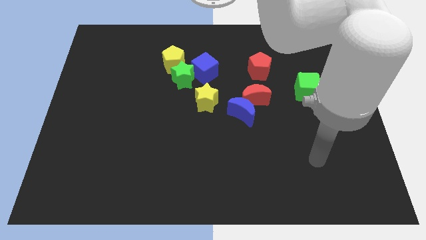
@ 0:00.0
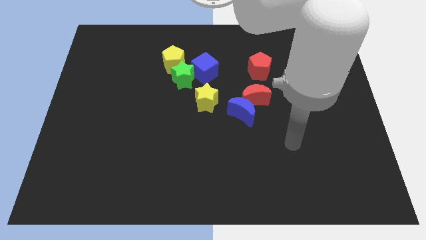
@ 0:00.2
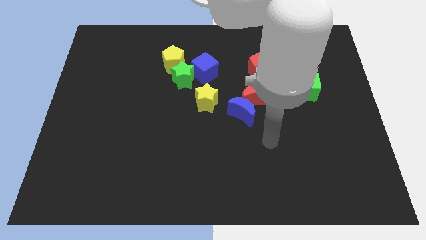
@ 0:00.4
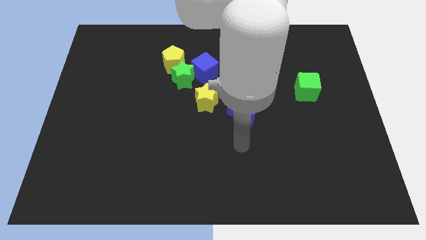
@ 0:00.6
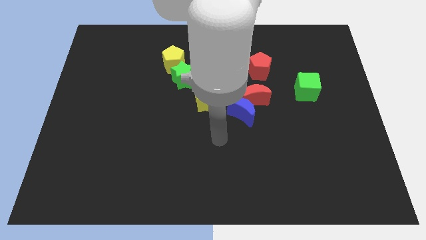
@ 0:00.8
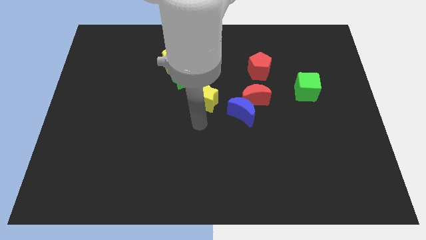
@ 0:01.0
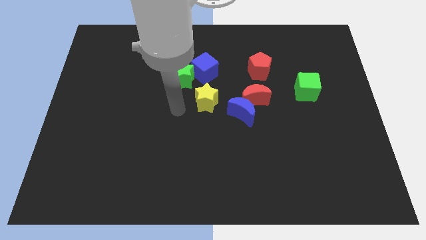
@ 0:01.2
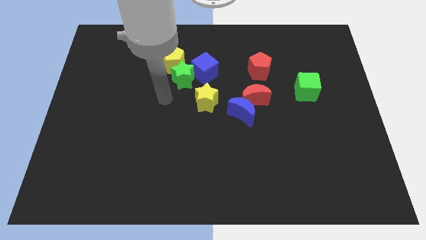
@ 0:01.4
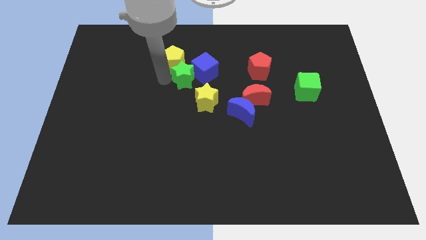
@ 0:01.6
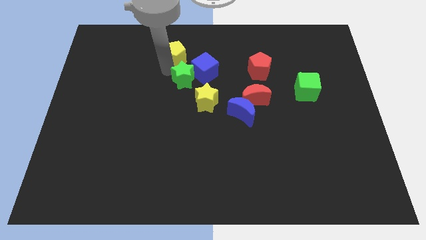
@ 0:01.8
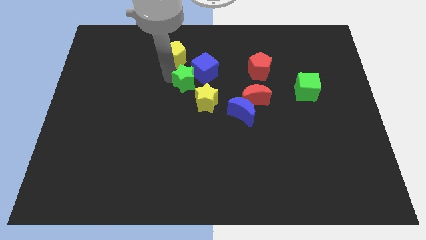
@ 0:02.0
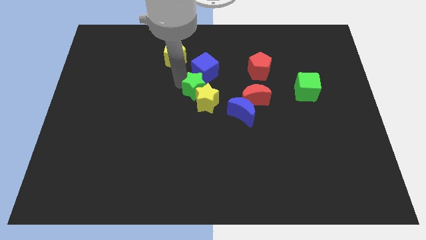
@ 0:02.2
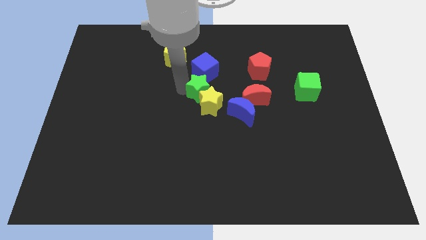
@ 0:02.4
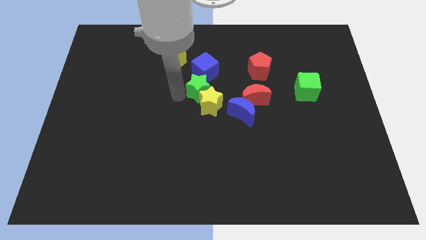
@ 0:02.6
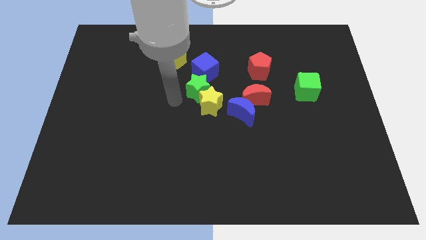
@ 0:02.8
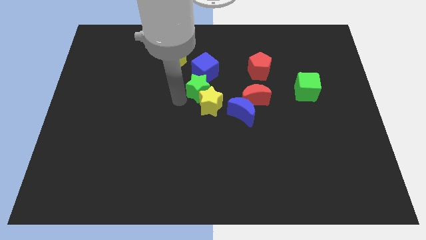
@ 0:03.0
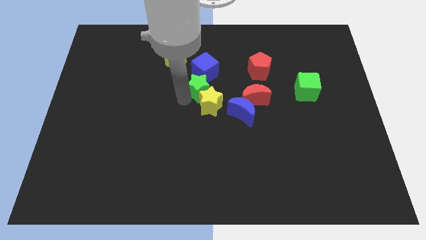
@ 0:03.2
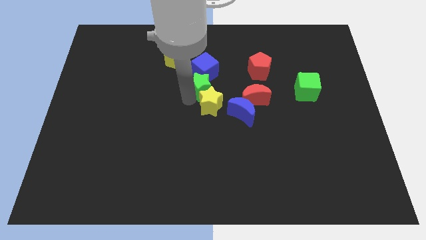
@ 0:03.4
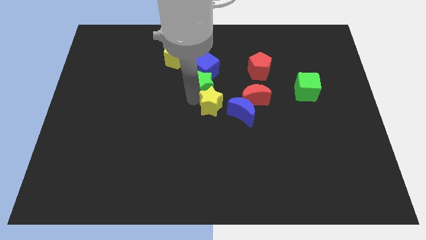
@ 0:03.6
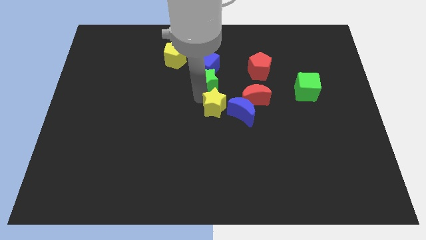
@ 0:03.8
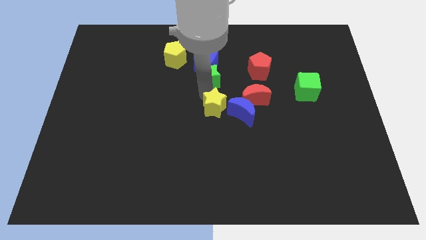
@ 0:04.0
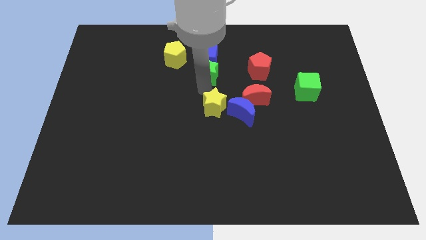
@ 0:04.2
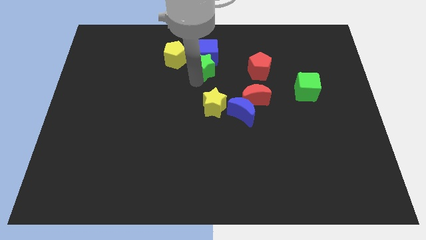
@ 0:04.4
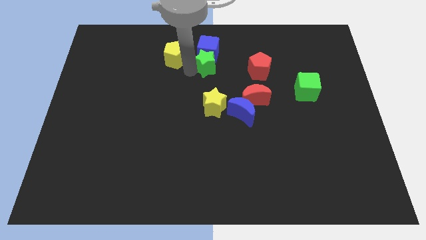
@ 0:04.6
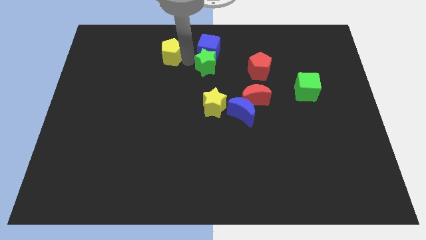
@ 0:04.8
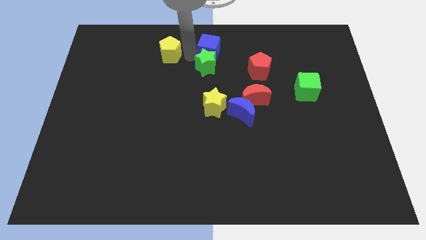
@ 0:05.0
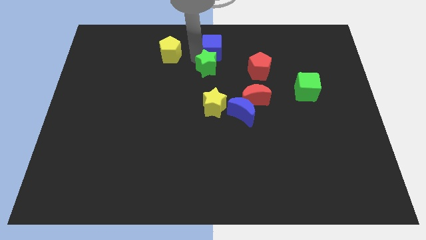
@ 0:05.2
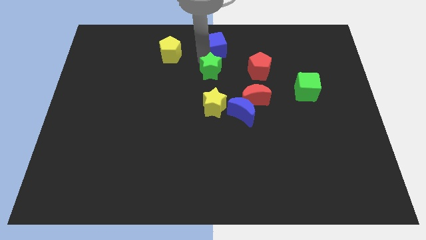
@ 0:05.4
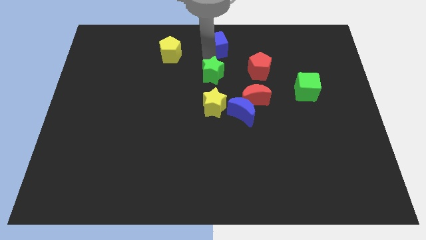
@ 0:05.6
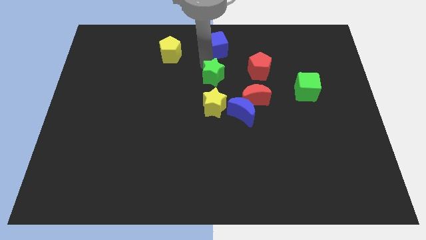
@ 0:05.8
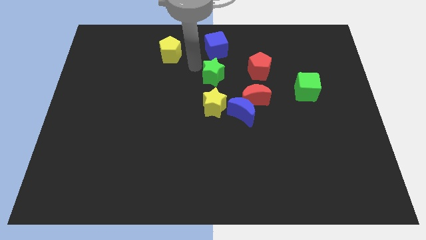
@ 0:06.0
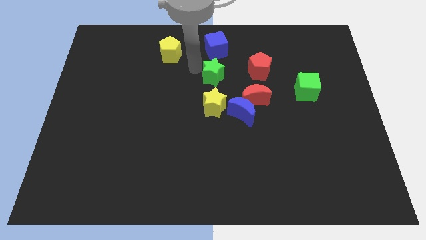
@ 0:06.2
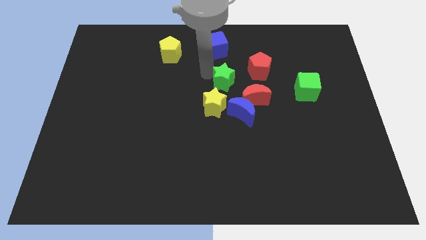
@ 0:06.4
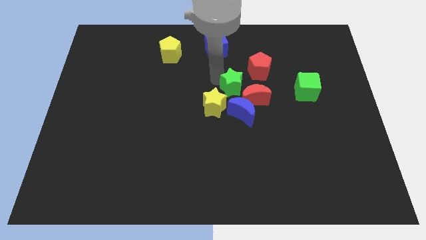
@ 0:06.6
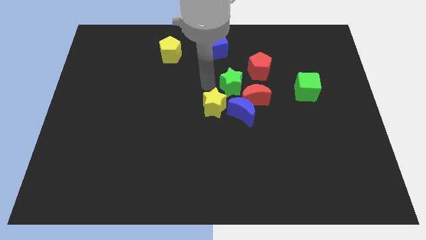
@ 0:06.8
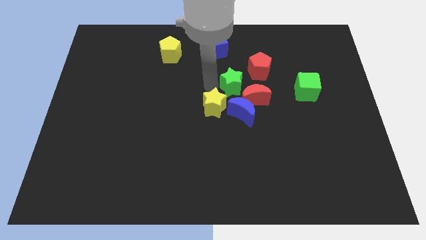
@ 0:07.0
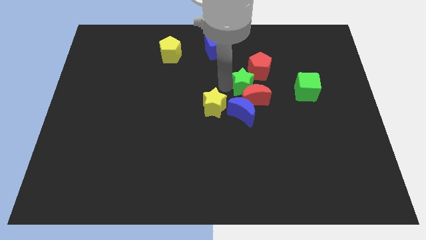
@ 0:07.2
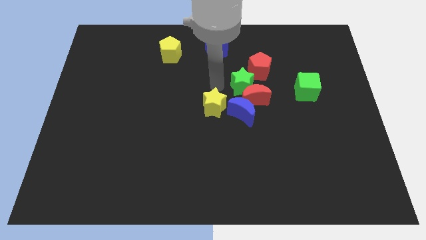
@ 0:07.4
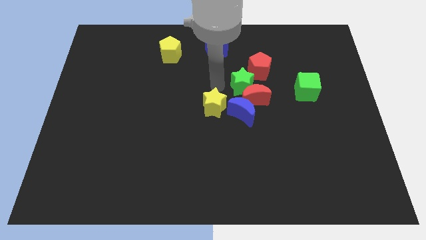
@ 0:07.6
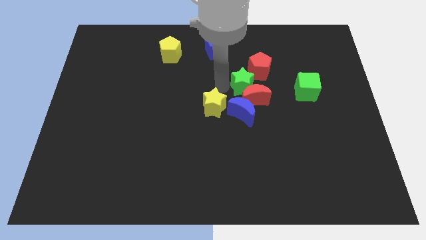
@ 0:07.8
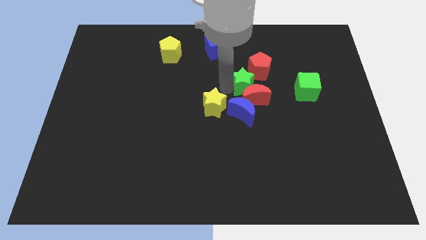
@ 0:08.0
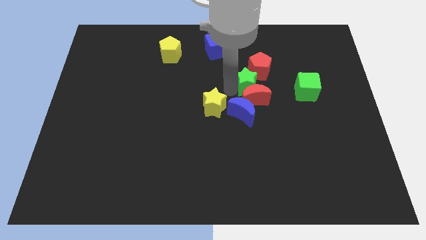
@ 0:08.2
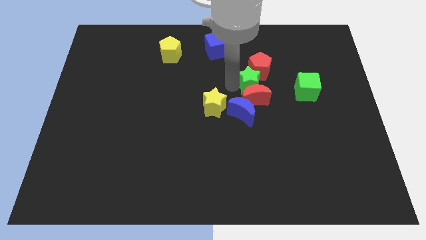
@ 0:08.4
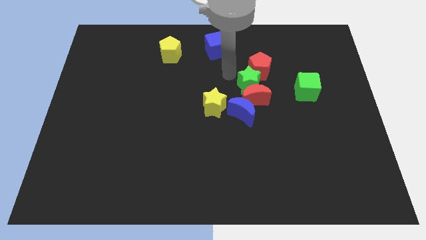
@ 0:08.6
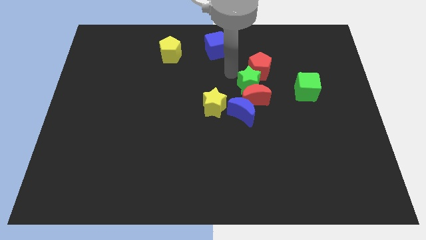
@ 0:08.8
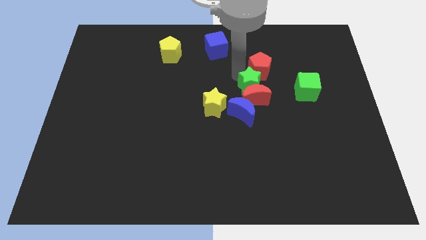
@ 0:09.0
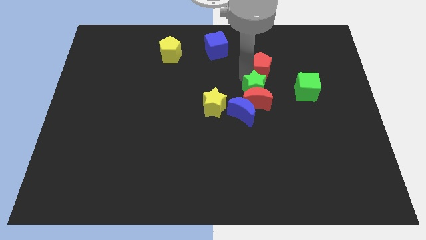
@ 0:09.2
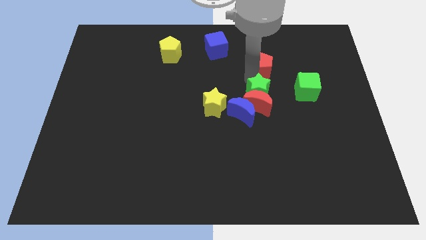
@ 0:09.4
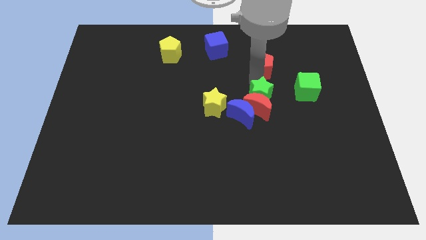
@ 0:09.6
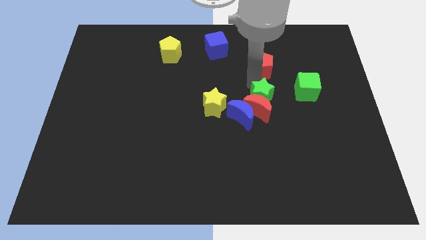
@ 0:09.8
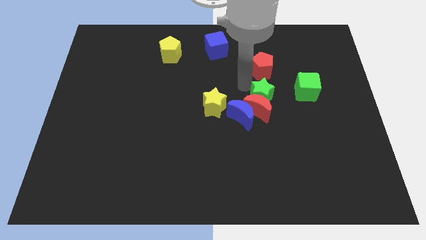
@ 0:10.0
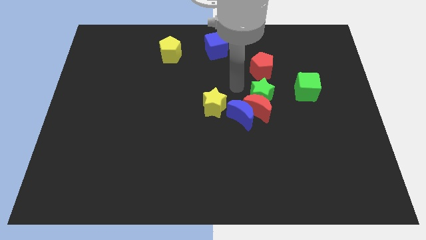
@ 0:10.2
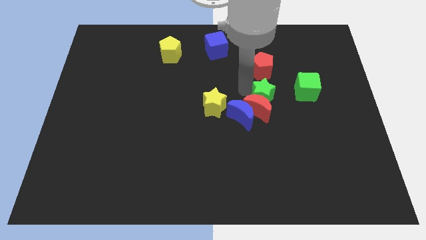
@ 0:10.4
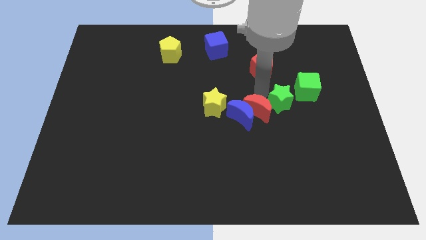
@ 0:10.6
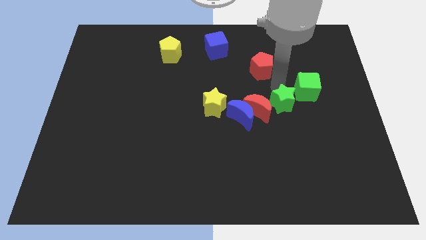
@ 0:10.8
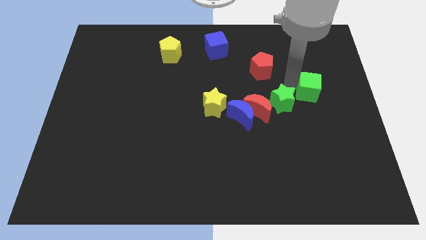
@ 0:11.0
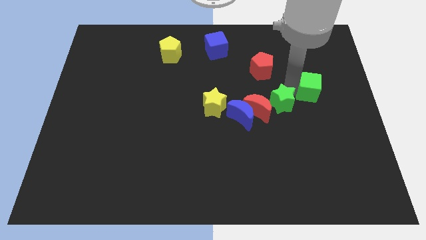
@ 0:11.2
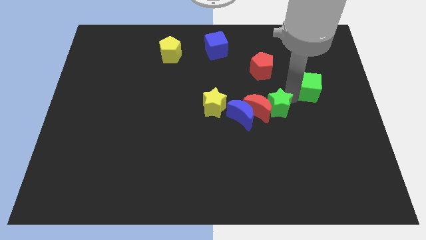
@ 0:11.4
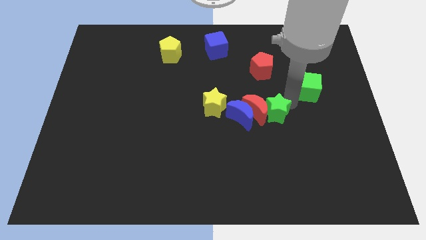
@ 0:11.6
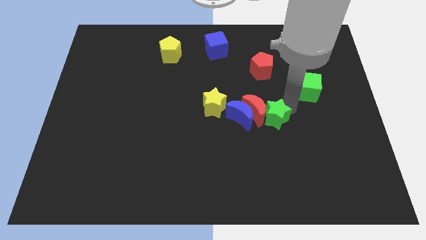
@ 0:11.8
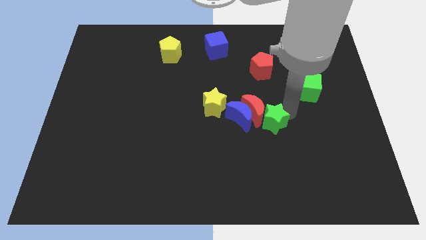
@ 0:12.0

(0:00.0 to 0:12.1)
move the green star diagonally down and to the right of the blue moon

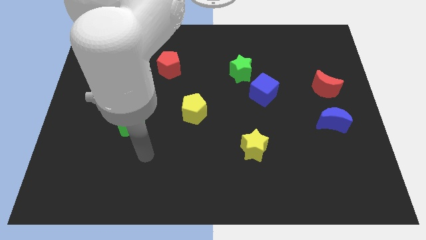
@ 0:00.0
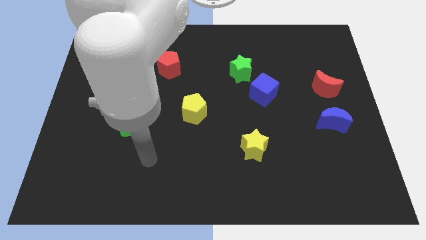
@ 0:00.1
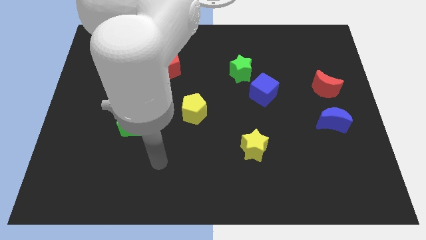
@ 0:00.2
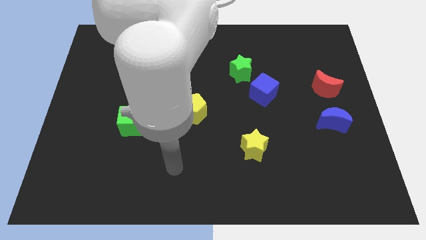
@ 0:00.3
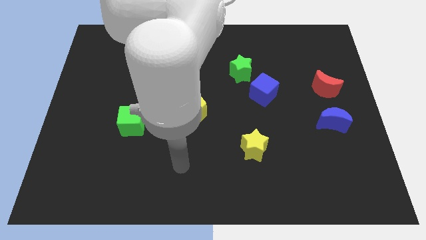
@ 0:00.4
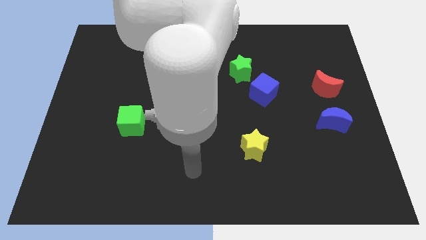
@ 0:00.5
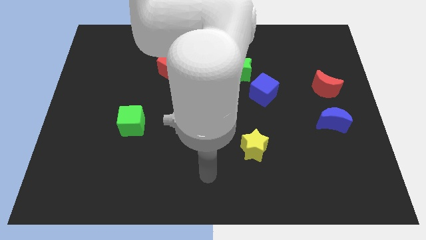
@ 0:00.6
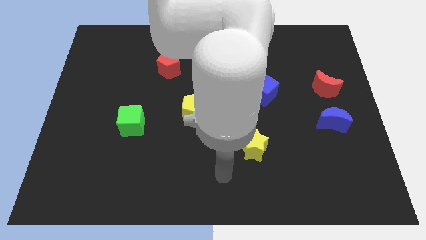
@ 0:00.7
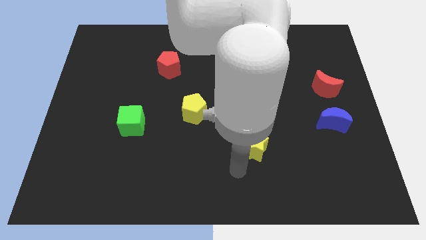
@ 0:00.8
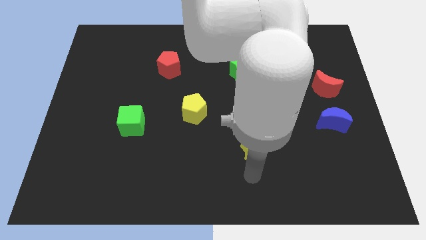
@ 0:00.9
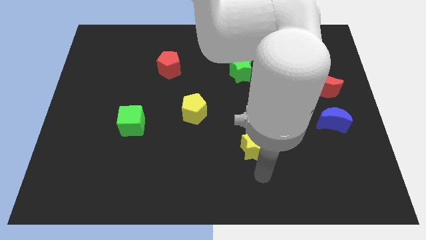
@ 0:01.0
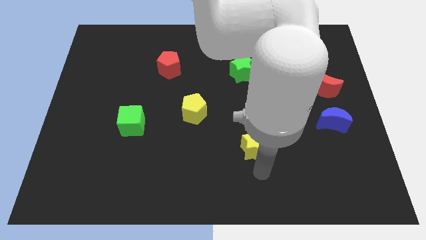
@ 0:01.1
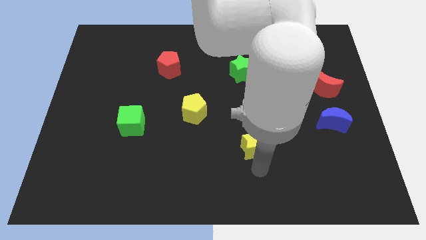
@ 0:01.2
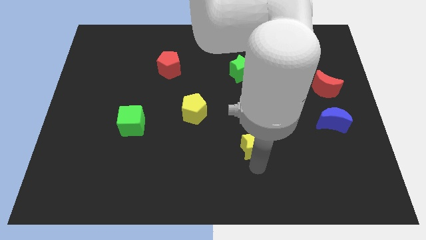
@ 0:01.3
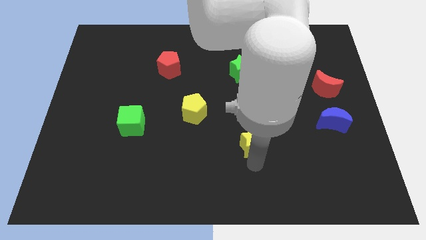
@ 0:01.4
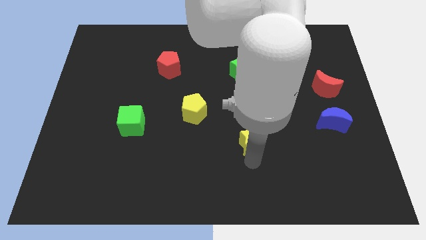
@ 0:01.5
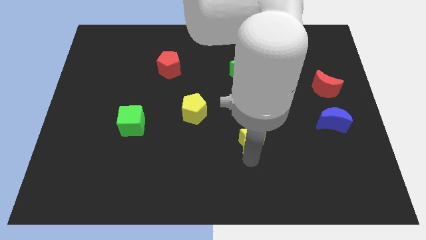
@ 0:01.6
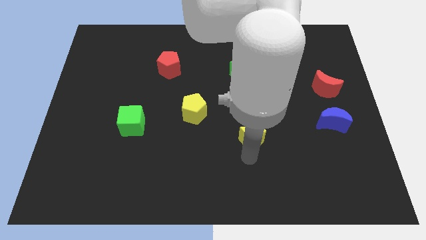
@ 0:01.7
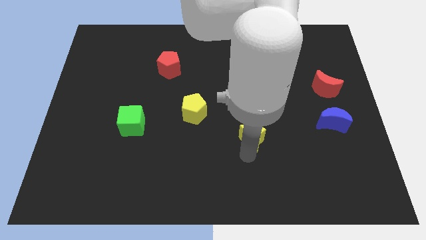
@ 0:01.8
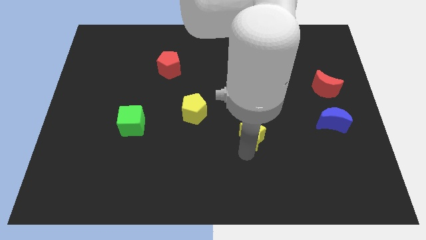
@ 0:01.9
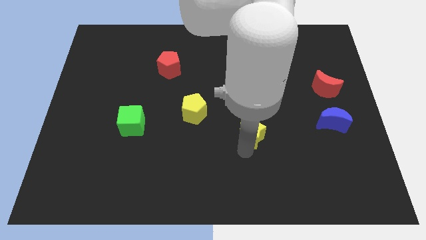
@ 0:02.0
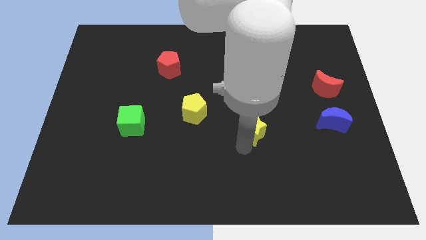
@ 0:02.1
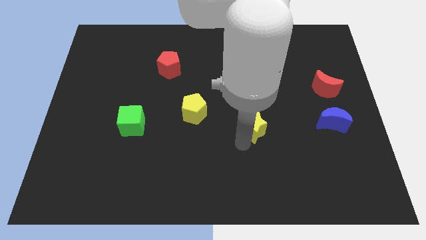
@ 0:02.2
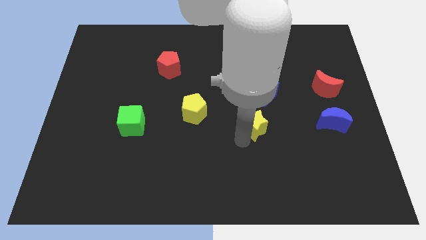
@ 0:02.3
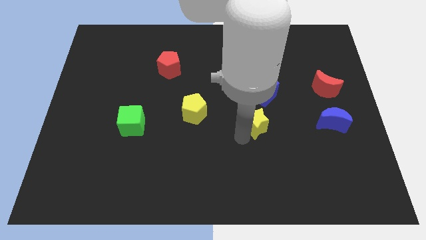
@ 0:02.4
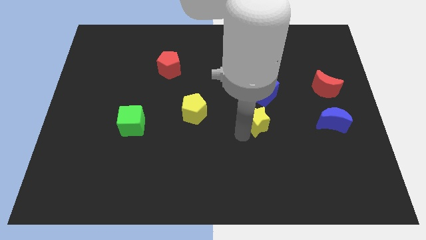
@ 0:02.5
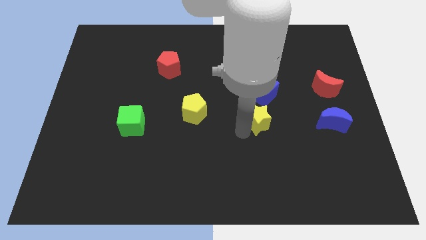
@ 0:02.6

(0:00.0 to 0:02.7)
put the yellow star to the bottom of the green star
